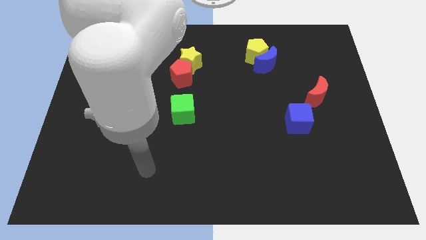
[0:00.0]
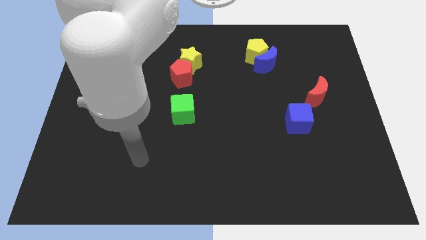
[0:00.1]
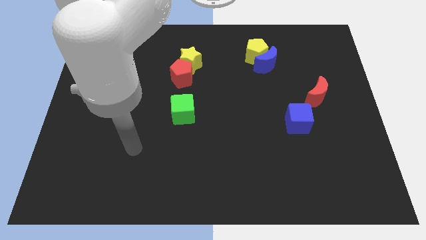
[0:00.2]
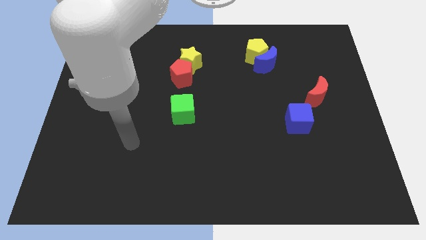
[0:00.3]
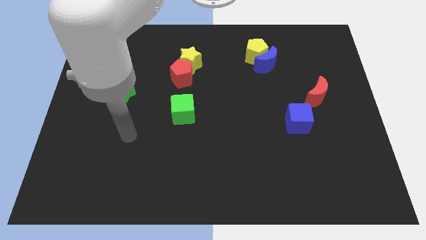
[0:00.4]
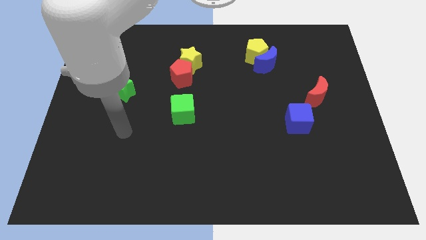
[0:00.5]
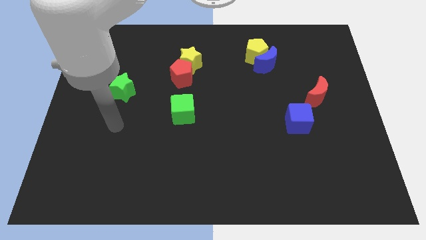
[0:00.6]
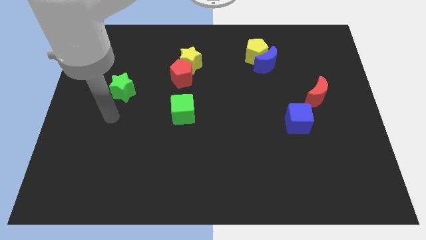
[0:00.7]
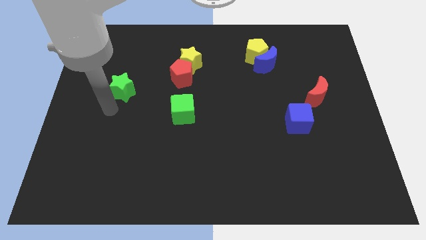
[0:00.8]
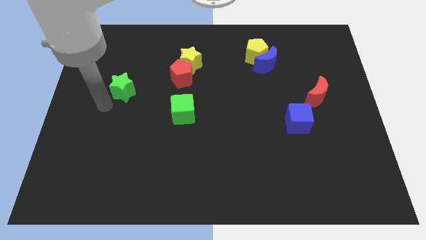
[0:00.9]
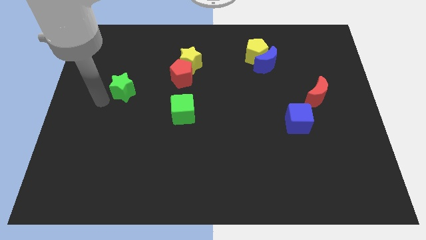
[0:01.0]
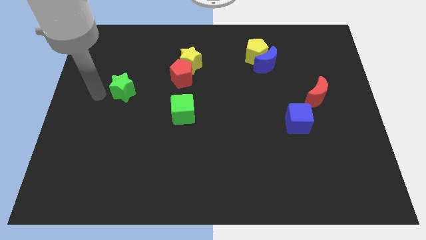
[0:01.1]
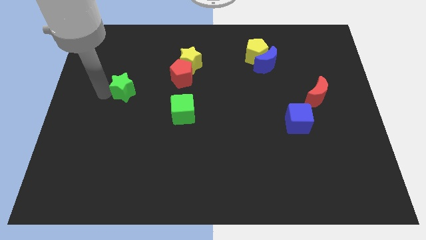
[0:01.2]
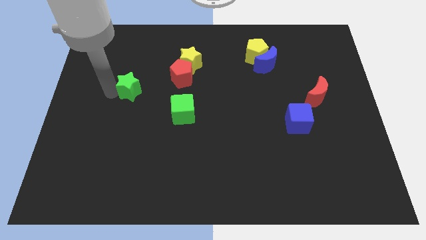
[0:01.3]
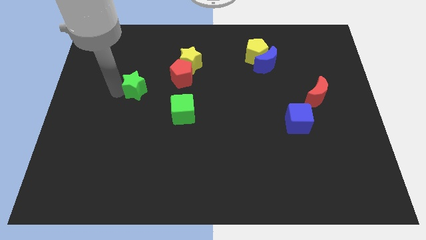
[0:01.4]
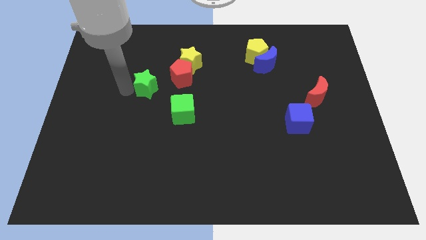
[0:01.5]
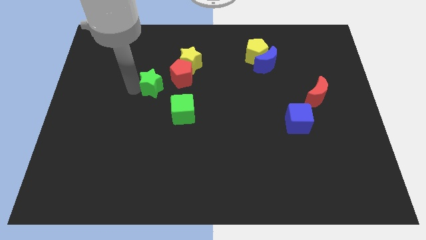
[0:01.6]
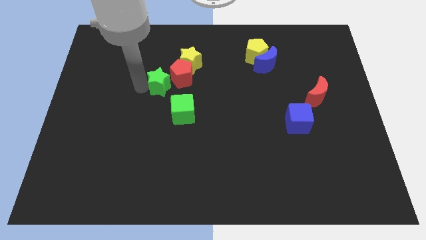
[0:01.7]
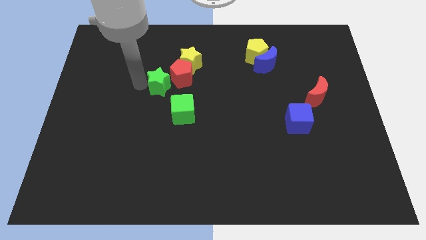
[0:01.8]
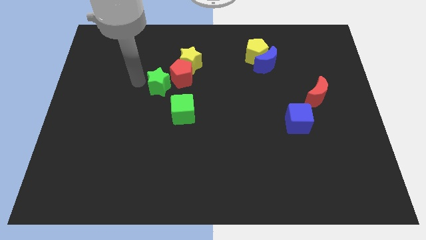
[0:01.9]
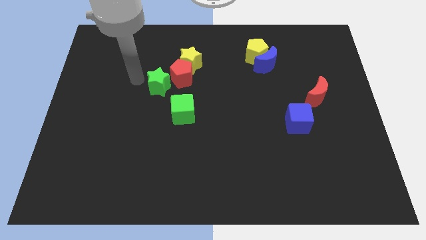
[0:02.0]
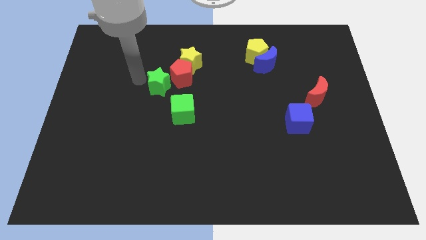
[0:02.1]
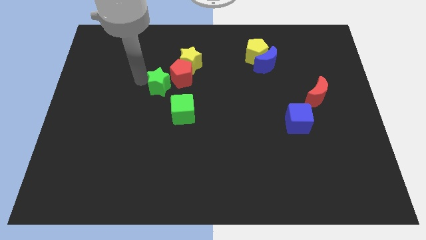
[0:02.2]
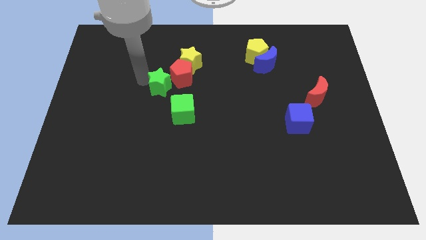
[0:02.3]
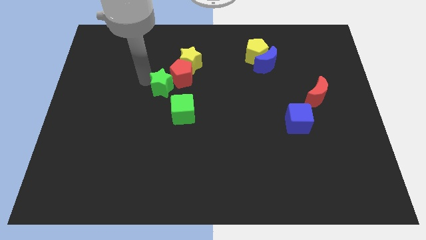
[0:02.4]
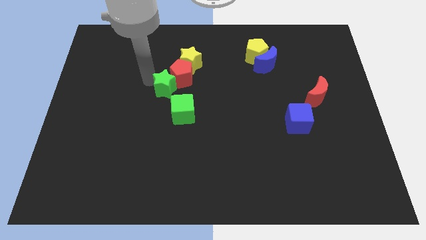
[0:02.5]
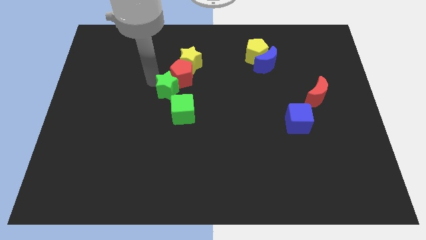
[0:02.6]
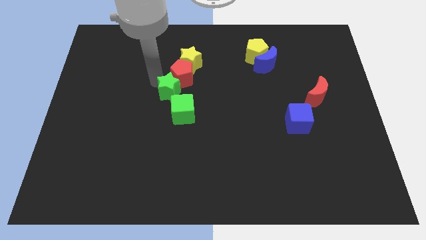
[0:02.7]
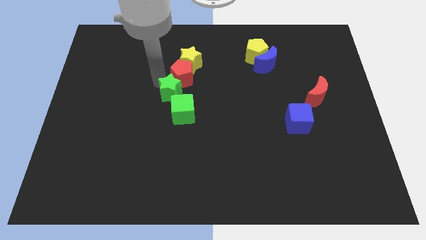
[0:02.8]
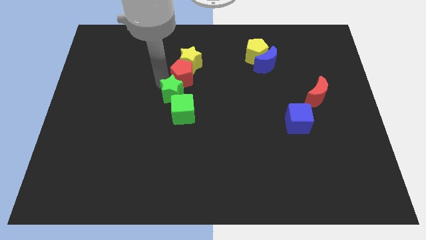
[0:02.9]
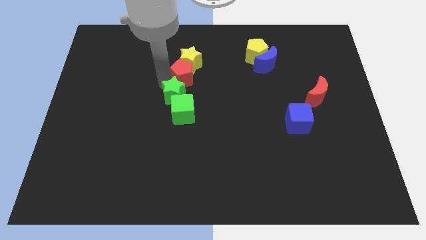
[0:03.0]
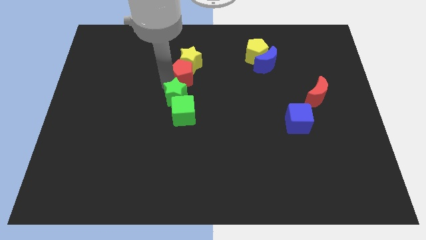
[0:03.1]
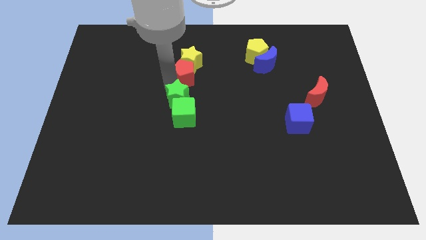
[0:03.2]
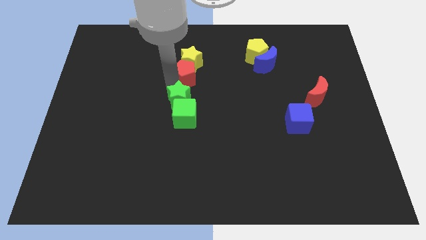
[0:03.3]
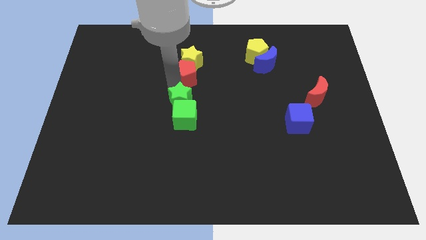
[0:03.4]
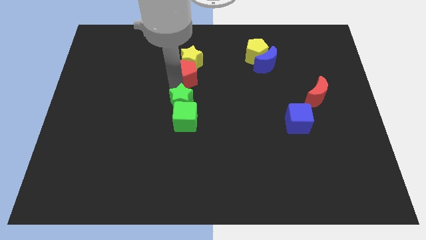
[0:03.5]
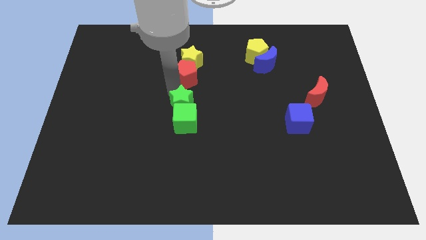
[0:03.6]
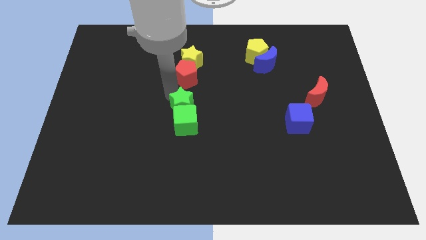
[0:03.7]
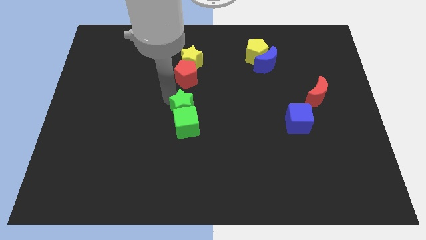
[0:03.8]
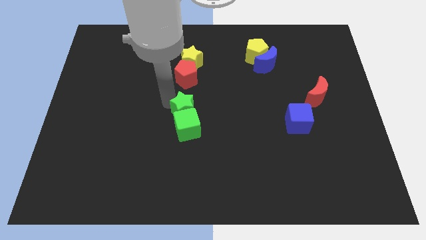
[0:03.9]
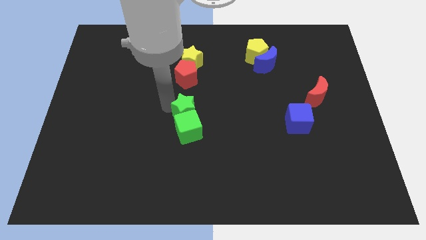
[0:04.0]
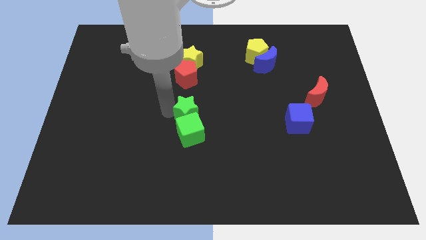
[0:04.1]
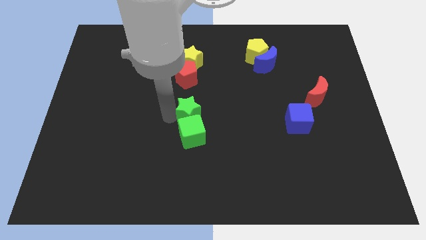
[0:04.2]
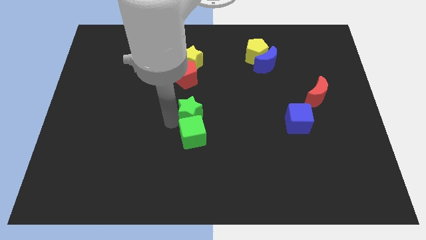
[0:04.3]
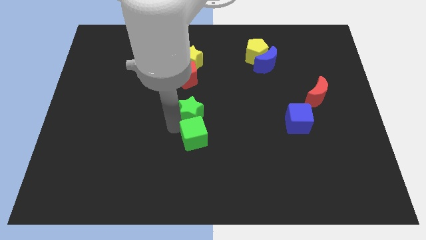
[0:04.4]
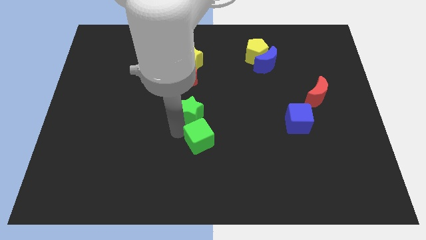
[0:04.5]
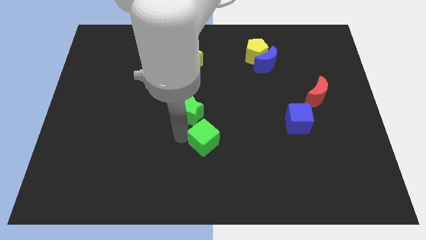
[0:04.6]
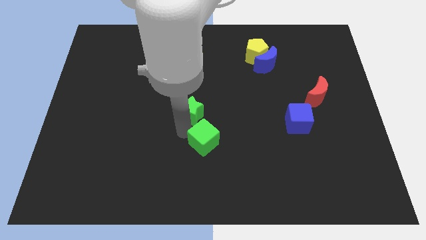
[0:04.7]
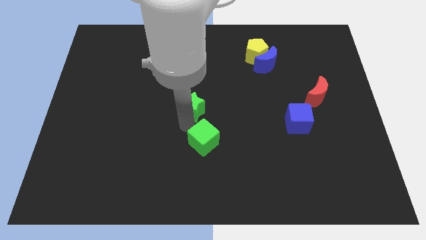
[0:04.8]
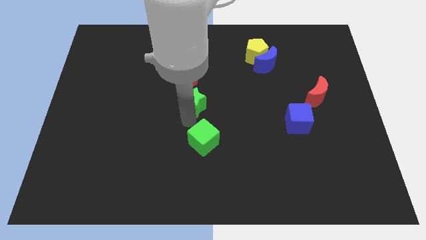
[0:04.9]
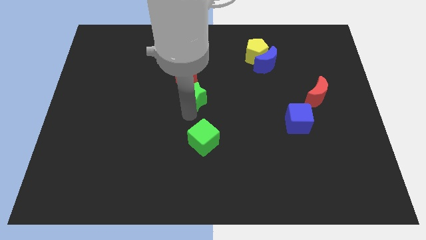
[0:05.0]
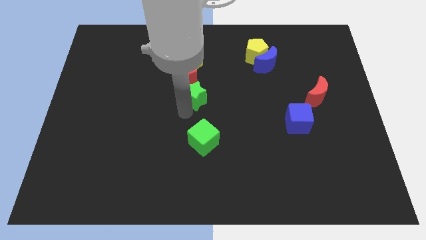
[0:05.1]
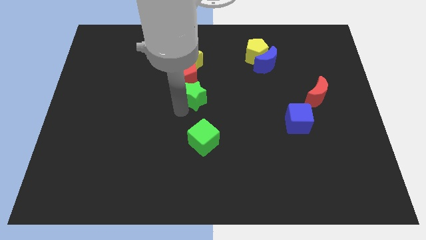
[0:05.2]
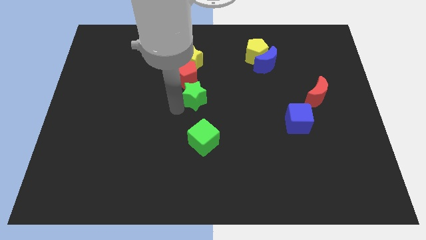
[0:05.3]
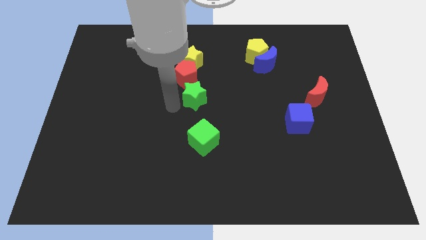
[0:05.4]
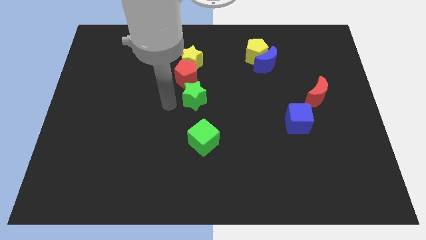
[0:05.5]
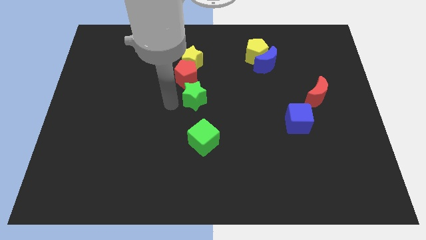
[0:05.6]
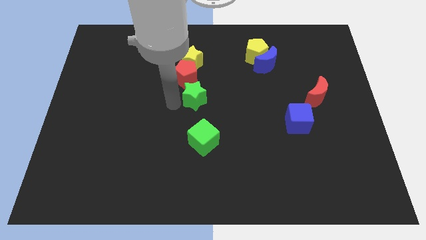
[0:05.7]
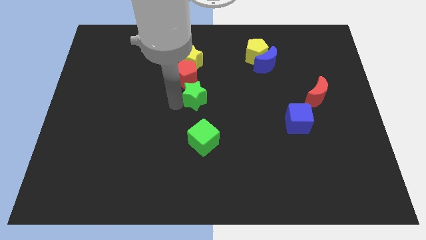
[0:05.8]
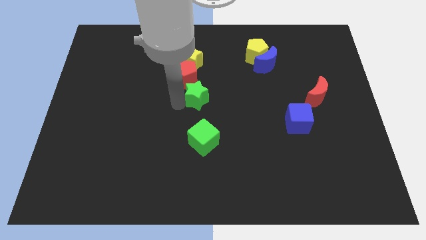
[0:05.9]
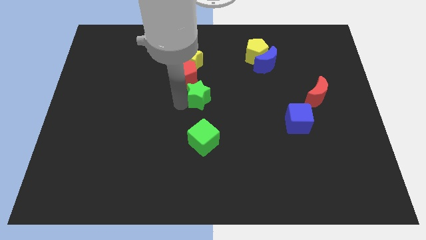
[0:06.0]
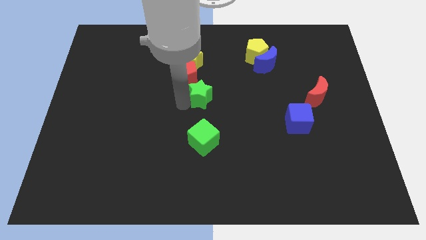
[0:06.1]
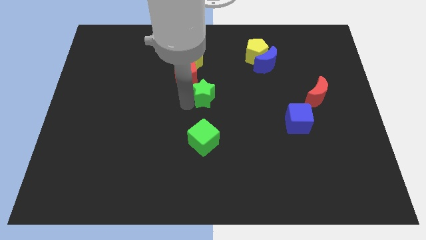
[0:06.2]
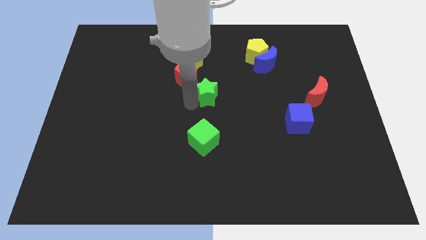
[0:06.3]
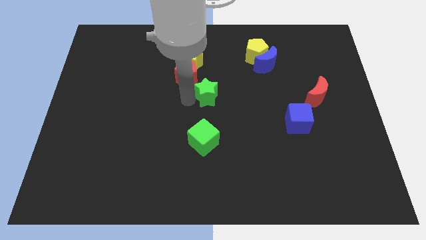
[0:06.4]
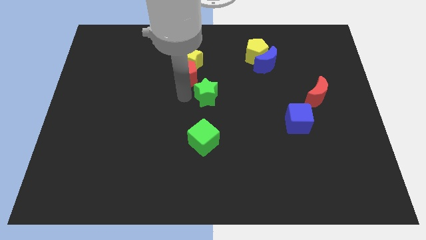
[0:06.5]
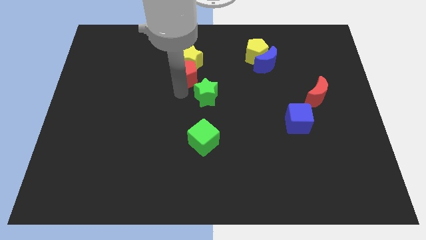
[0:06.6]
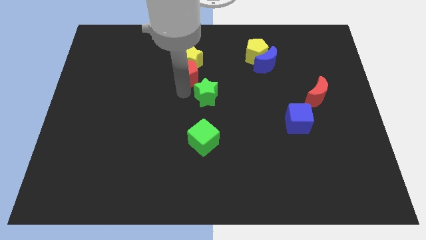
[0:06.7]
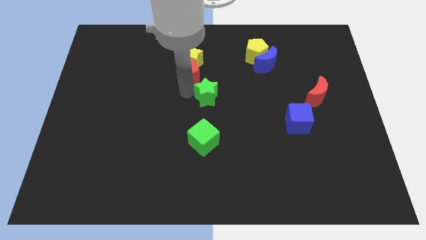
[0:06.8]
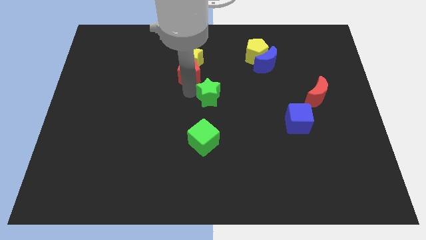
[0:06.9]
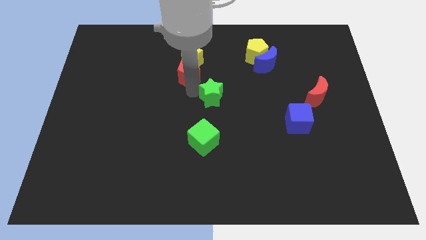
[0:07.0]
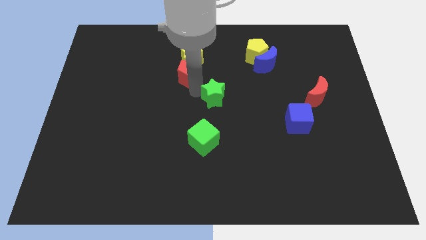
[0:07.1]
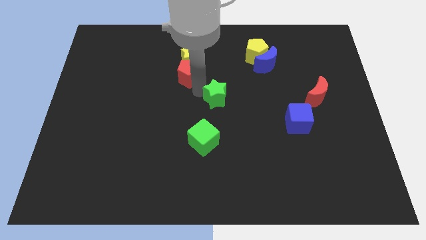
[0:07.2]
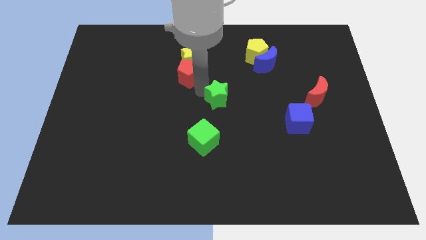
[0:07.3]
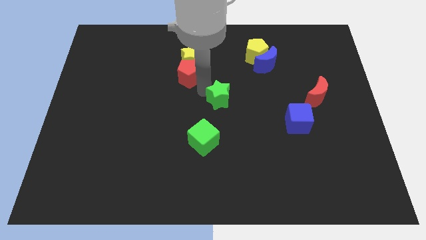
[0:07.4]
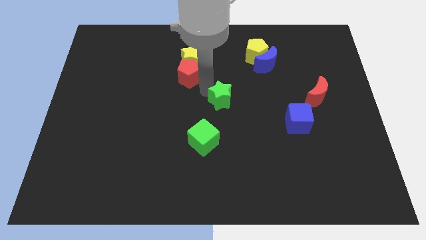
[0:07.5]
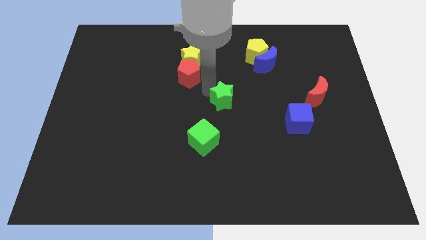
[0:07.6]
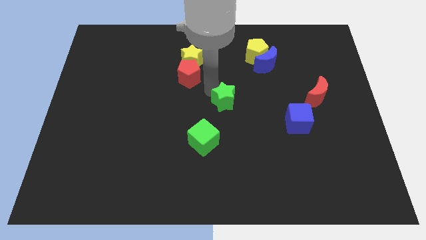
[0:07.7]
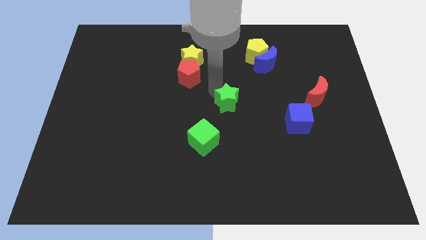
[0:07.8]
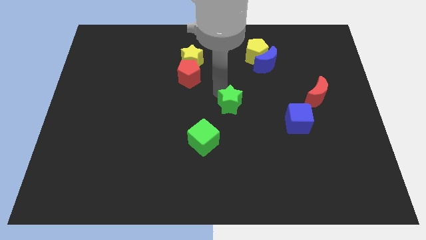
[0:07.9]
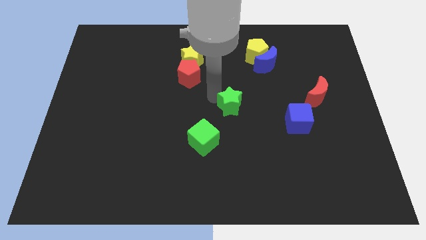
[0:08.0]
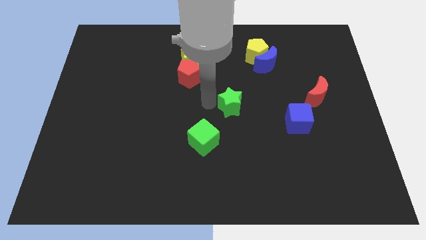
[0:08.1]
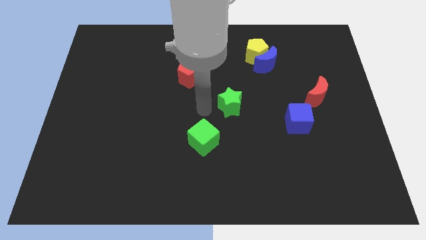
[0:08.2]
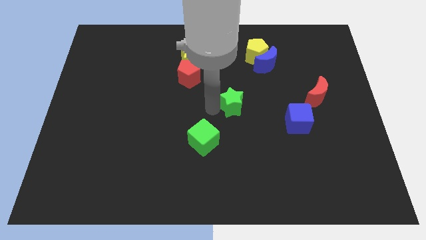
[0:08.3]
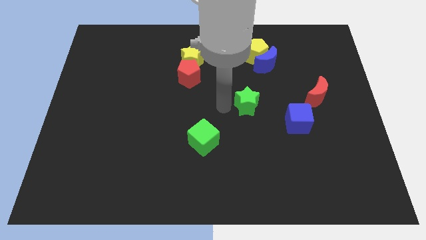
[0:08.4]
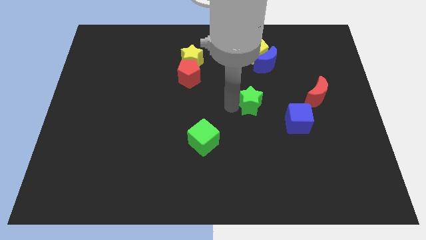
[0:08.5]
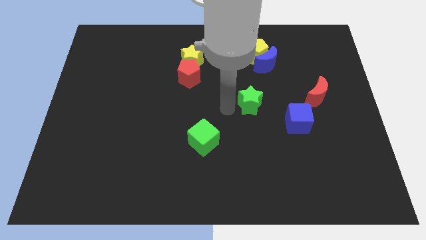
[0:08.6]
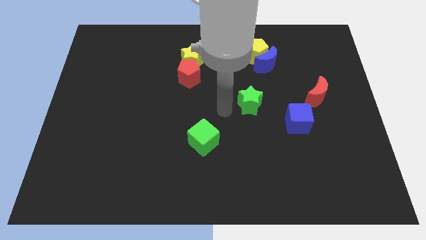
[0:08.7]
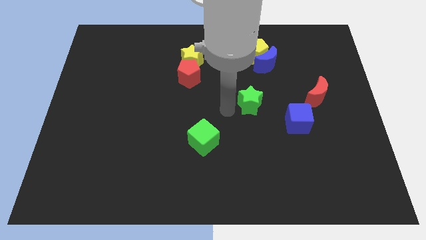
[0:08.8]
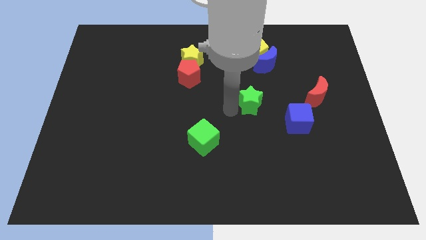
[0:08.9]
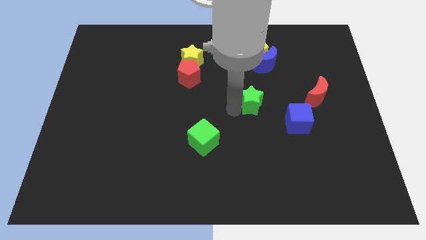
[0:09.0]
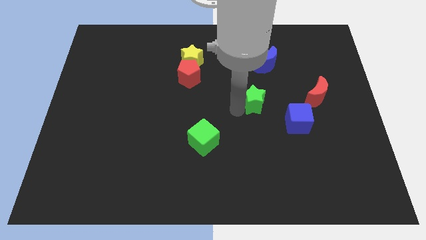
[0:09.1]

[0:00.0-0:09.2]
push the green star left of the red moon
